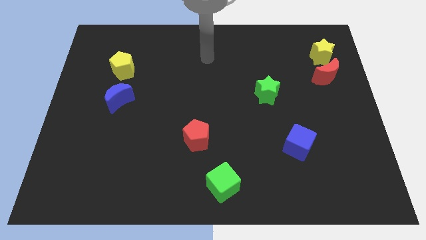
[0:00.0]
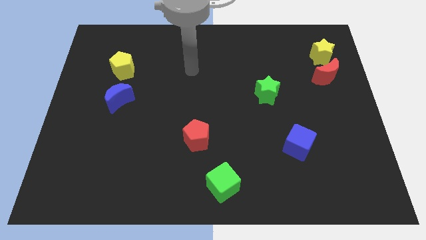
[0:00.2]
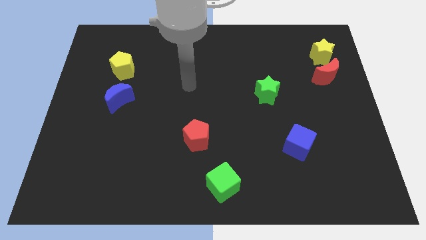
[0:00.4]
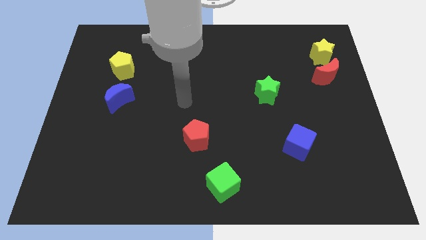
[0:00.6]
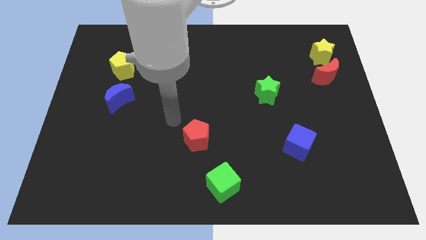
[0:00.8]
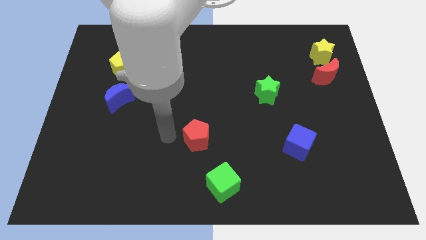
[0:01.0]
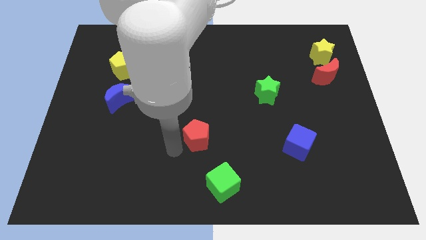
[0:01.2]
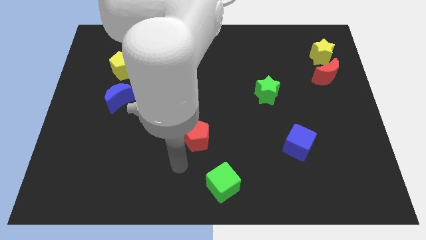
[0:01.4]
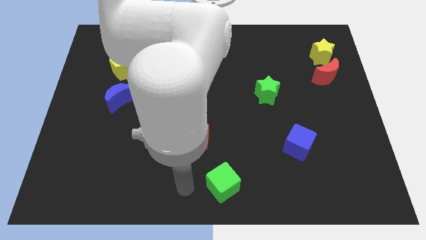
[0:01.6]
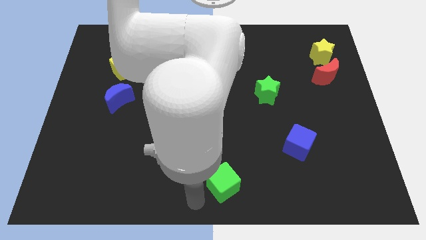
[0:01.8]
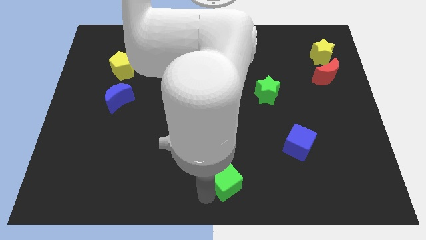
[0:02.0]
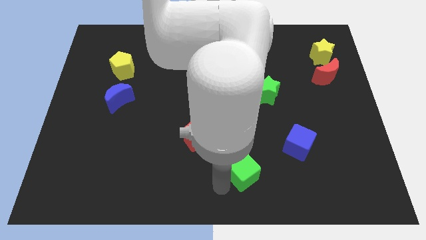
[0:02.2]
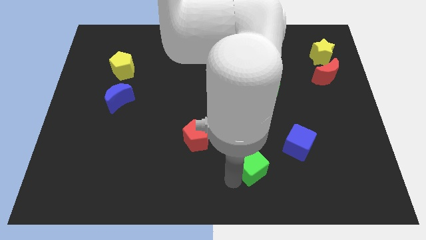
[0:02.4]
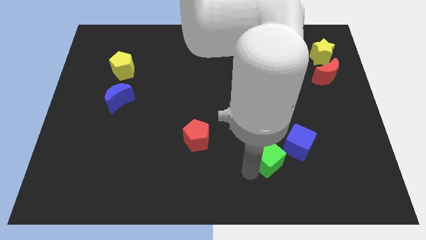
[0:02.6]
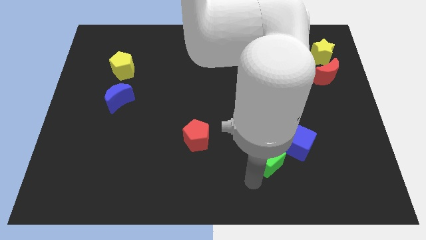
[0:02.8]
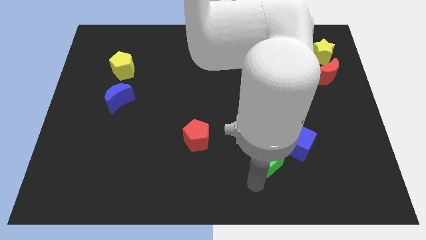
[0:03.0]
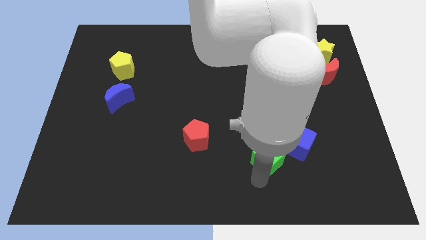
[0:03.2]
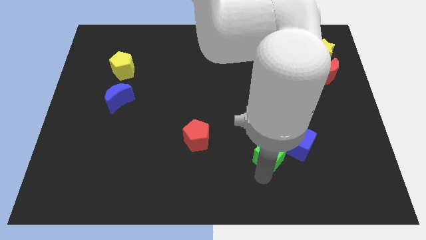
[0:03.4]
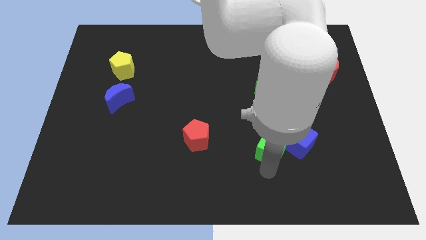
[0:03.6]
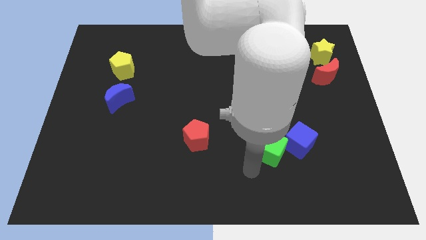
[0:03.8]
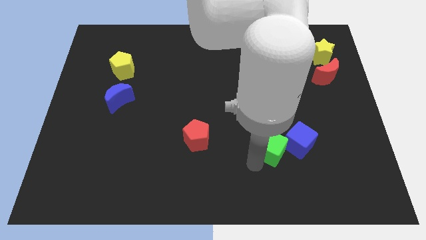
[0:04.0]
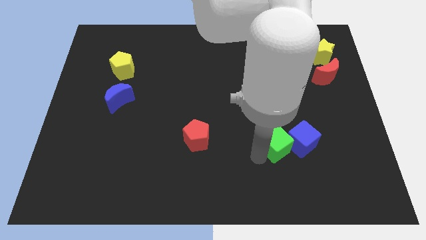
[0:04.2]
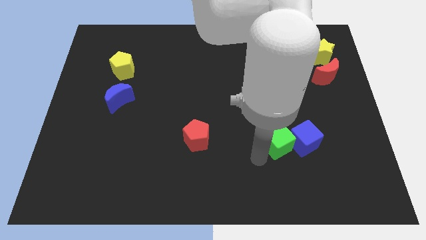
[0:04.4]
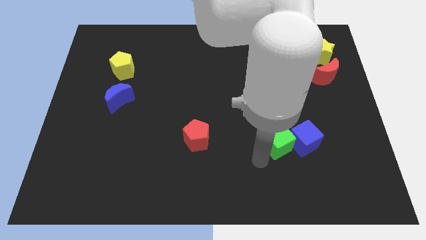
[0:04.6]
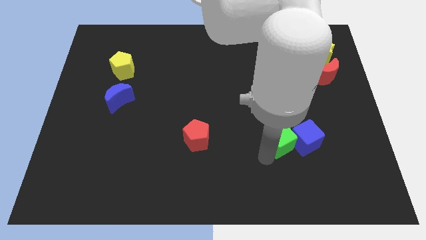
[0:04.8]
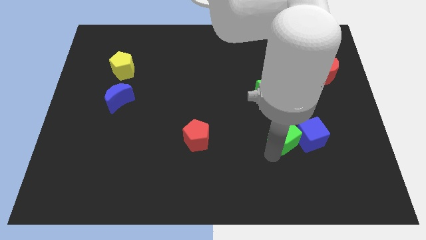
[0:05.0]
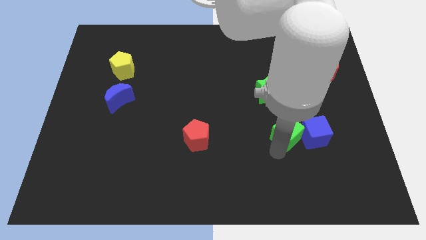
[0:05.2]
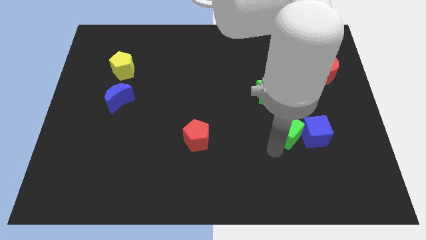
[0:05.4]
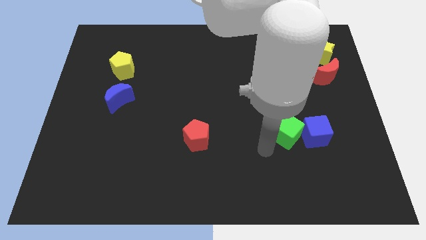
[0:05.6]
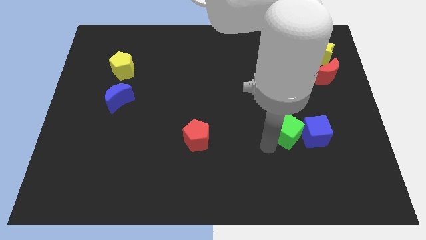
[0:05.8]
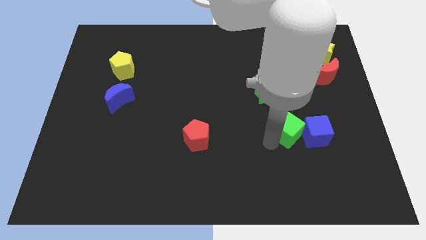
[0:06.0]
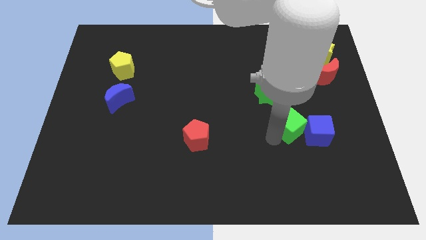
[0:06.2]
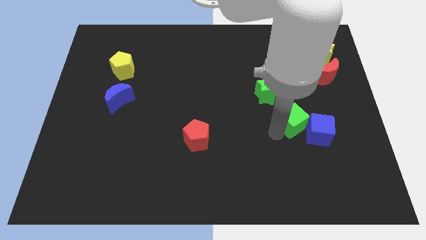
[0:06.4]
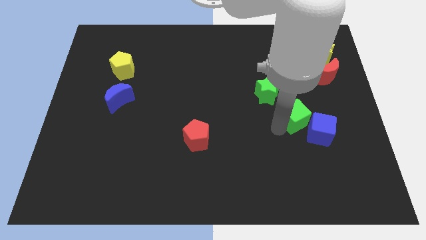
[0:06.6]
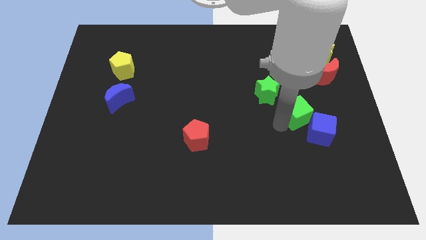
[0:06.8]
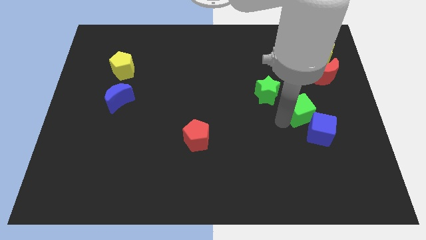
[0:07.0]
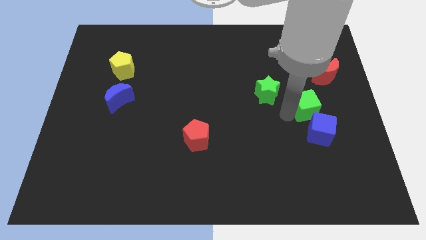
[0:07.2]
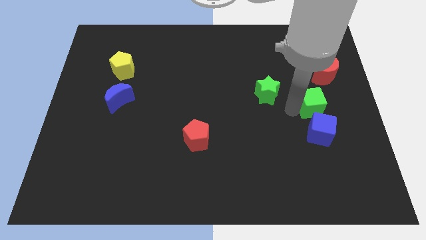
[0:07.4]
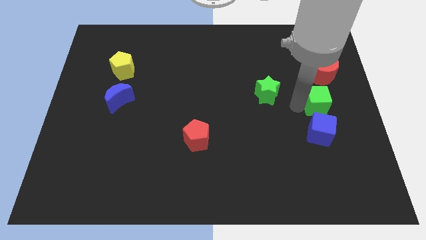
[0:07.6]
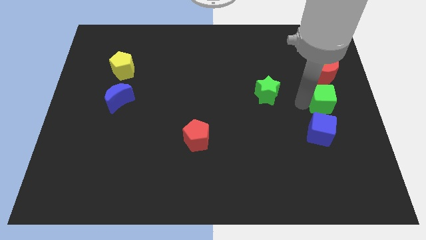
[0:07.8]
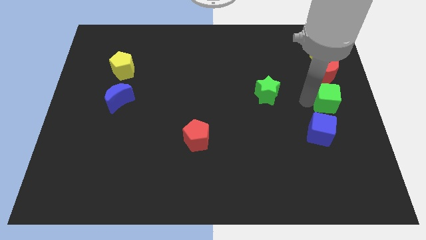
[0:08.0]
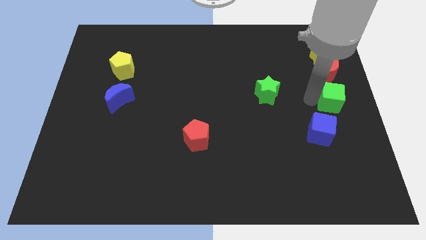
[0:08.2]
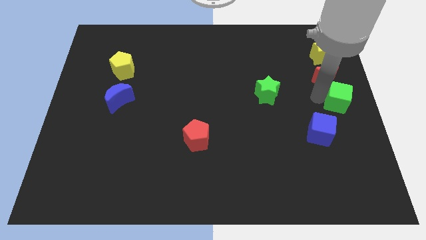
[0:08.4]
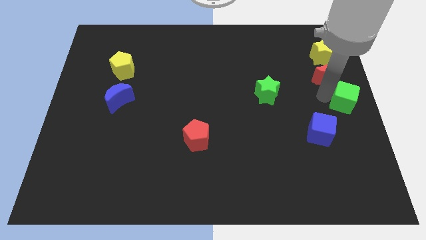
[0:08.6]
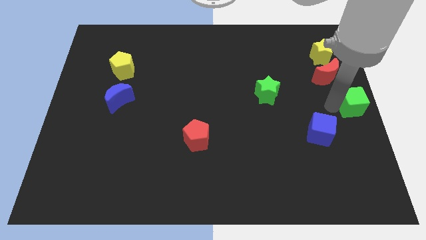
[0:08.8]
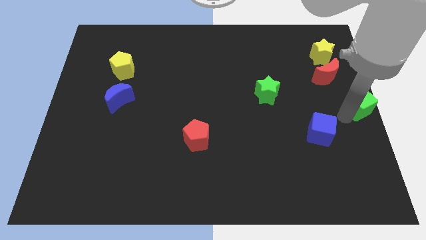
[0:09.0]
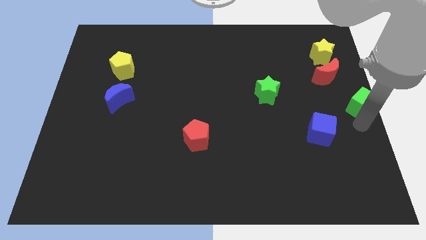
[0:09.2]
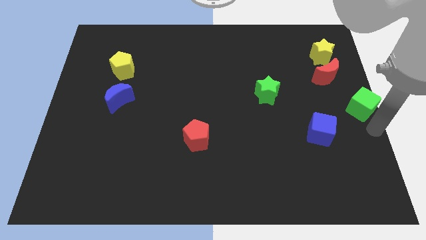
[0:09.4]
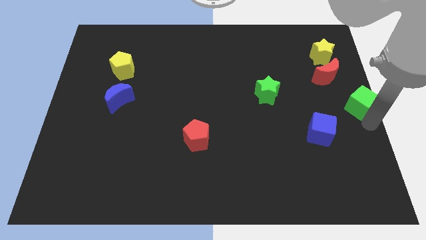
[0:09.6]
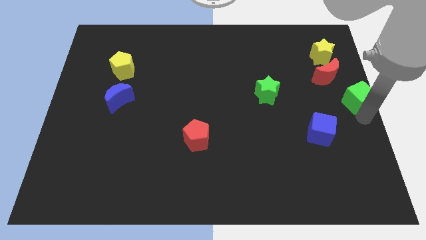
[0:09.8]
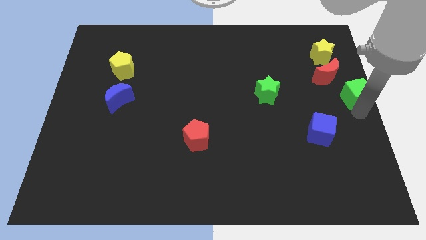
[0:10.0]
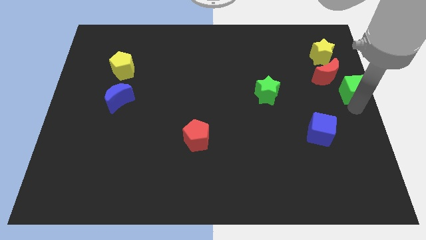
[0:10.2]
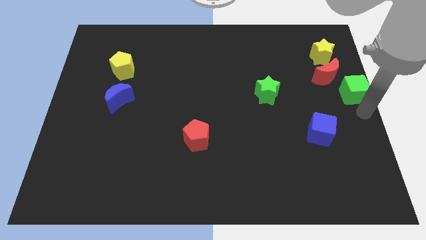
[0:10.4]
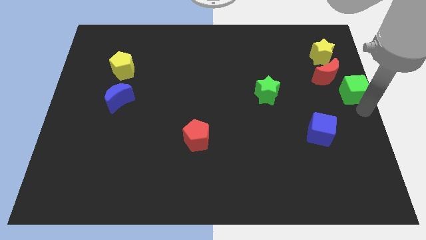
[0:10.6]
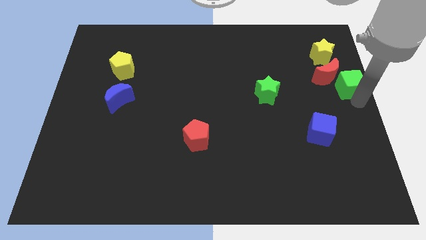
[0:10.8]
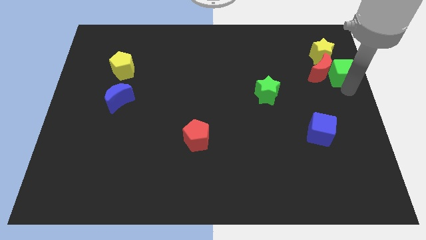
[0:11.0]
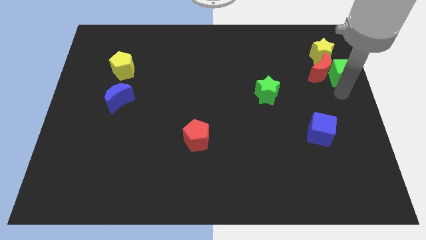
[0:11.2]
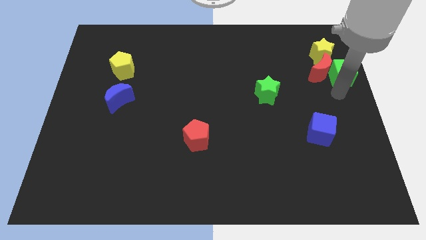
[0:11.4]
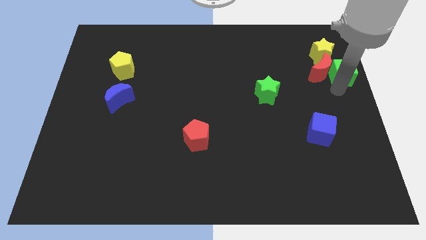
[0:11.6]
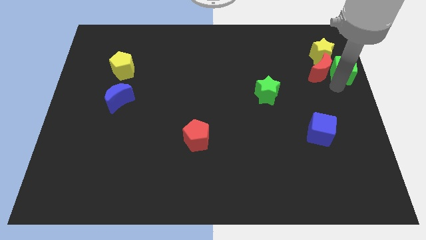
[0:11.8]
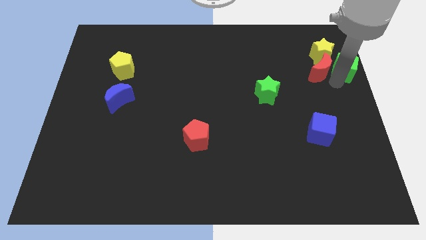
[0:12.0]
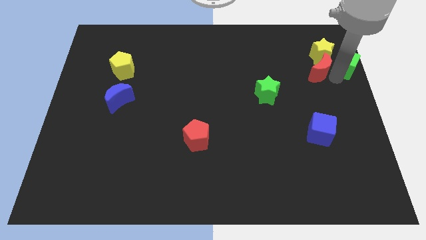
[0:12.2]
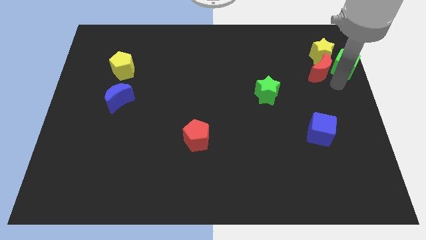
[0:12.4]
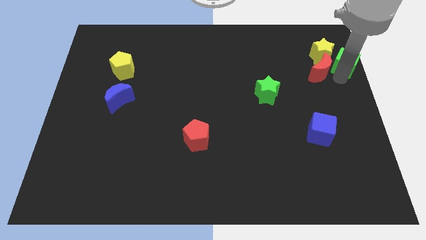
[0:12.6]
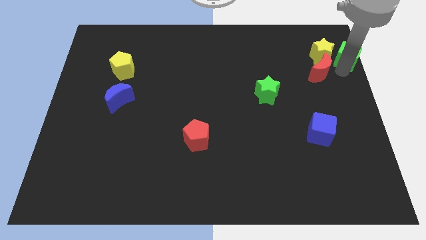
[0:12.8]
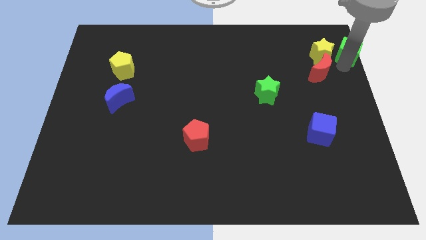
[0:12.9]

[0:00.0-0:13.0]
slide the green cube to the top right of the board

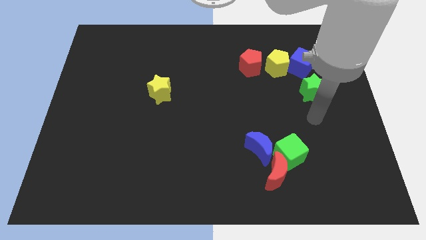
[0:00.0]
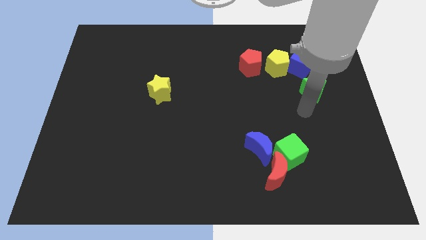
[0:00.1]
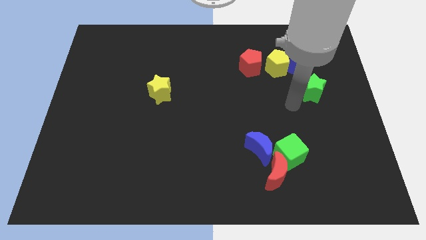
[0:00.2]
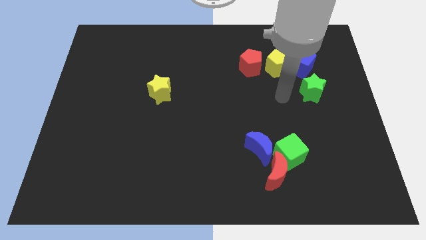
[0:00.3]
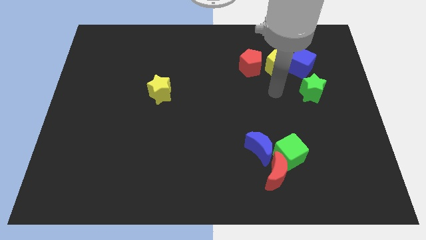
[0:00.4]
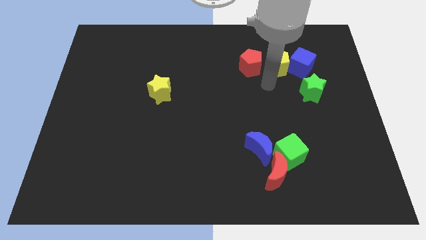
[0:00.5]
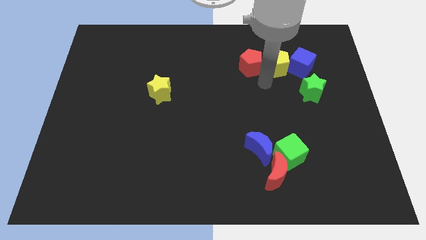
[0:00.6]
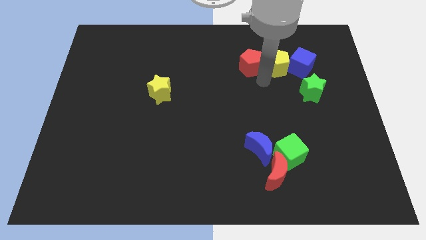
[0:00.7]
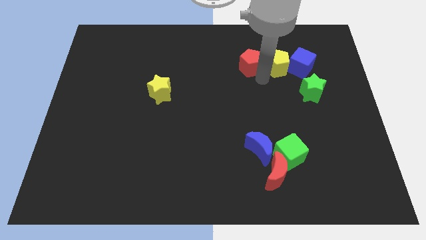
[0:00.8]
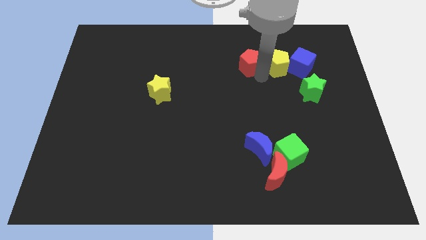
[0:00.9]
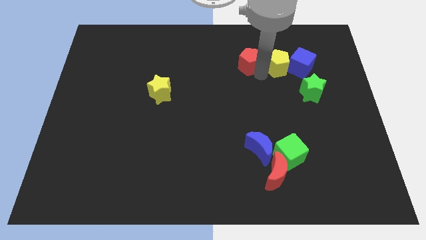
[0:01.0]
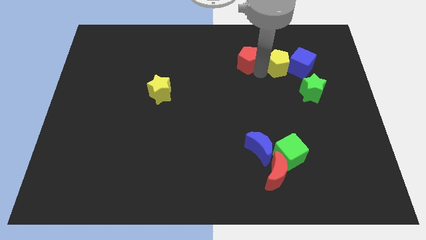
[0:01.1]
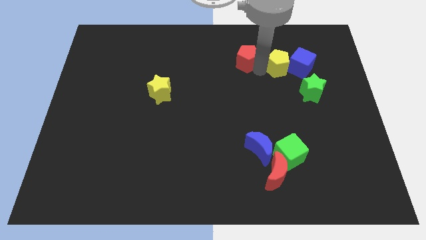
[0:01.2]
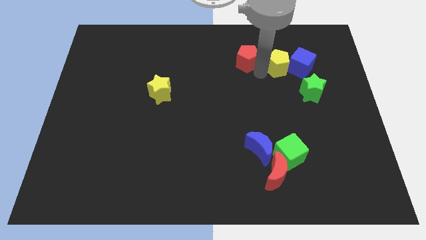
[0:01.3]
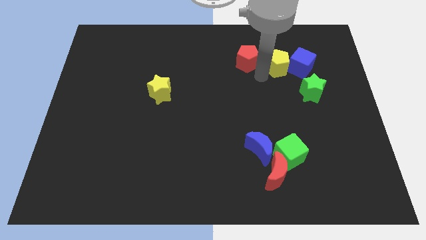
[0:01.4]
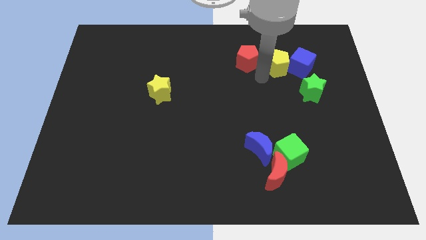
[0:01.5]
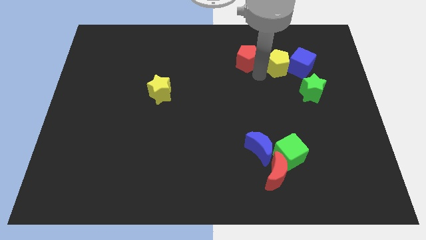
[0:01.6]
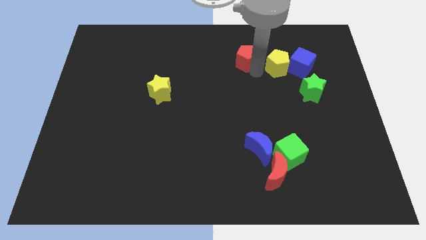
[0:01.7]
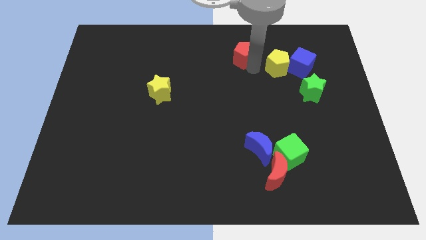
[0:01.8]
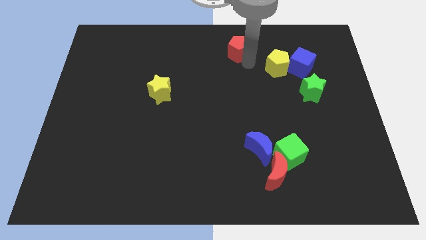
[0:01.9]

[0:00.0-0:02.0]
put the red pentagon to the towards your base

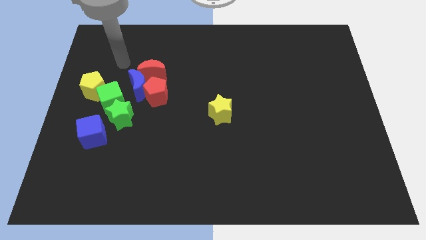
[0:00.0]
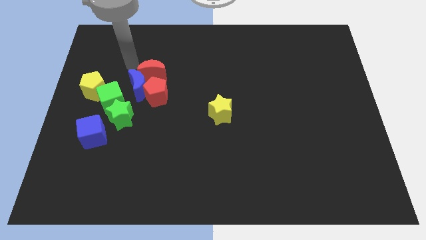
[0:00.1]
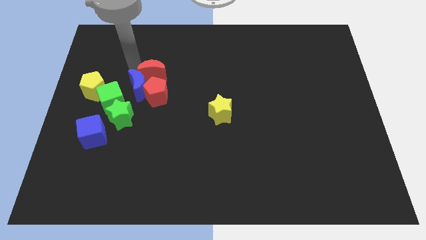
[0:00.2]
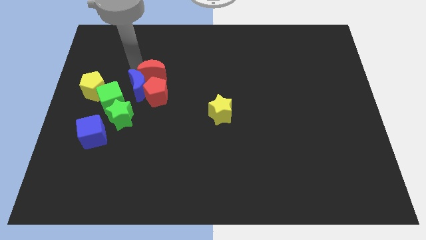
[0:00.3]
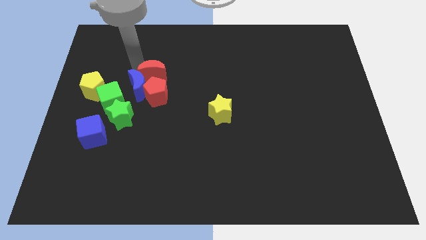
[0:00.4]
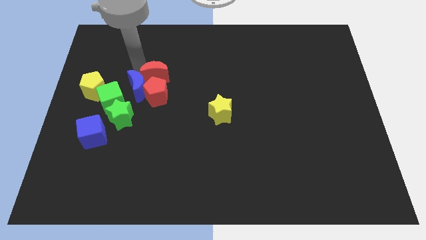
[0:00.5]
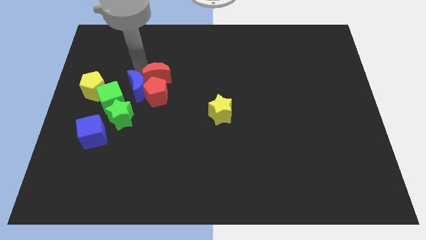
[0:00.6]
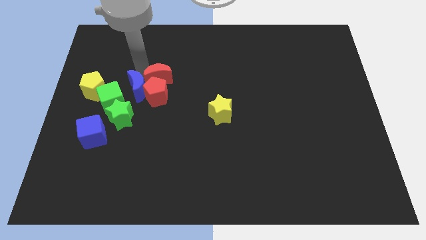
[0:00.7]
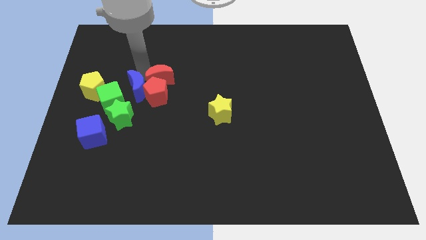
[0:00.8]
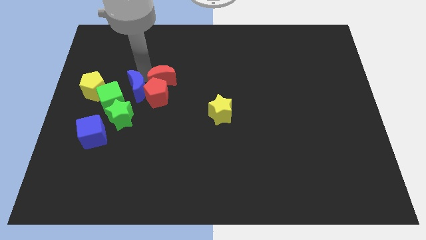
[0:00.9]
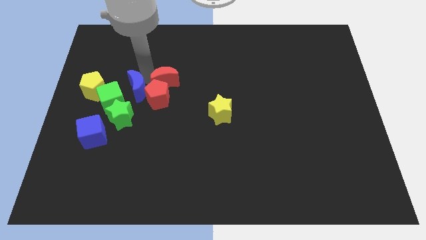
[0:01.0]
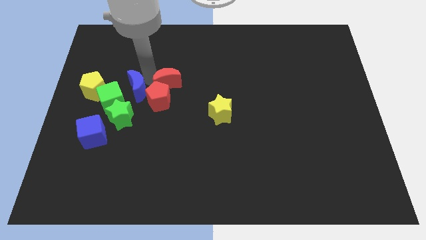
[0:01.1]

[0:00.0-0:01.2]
move the red moon to the middle
